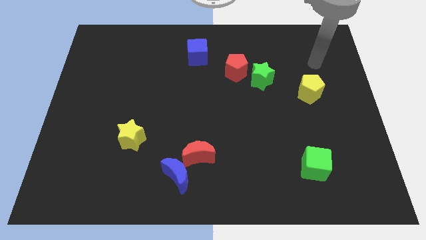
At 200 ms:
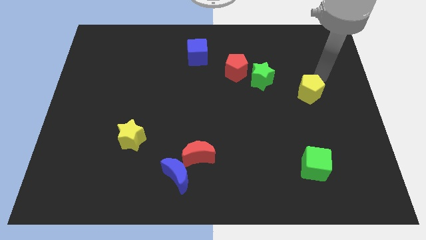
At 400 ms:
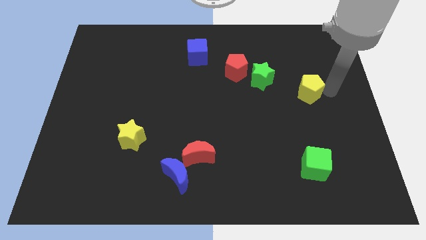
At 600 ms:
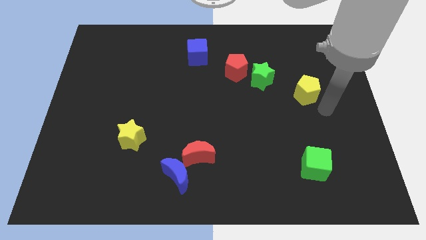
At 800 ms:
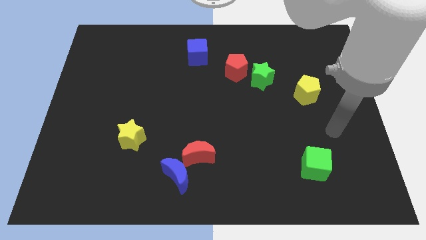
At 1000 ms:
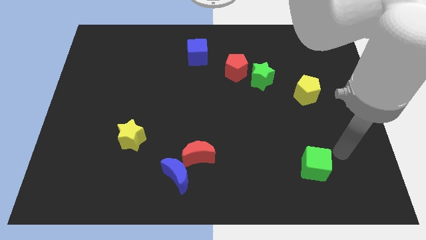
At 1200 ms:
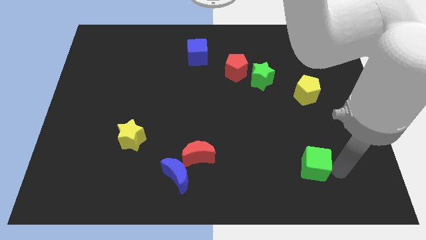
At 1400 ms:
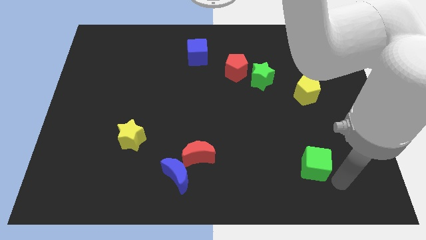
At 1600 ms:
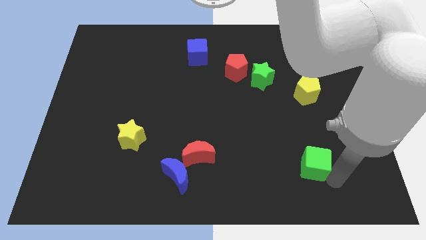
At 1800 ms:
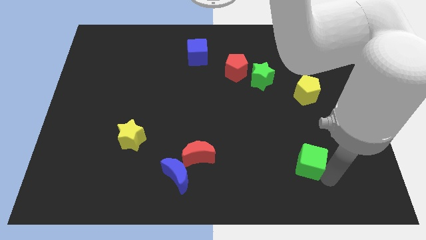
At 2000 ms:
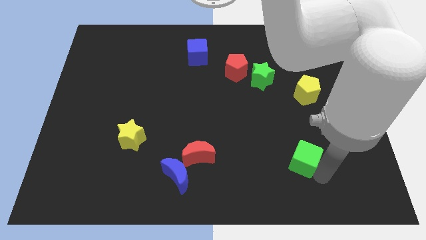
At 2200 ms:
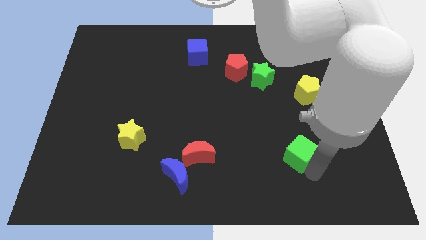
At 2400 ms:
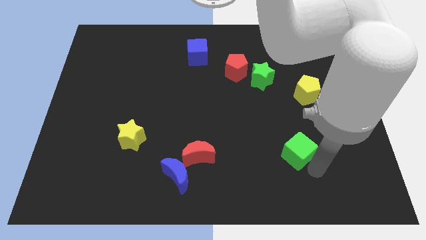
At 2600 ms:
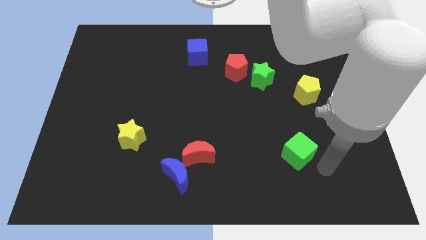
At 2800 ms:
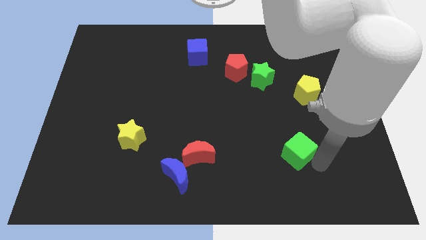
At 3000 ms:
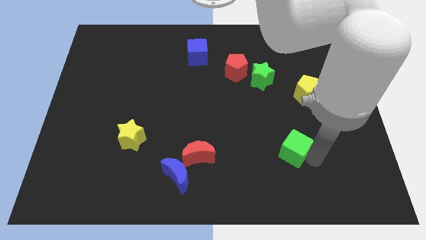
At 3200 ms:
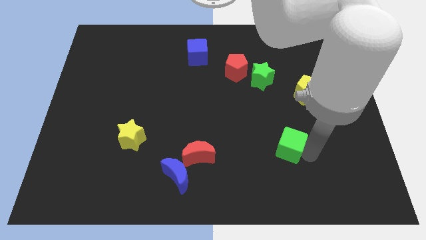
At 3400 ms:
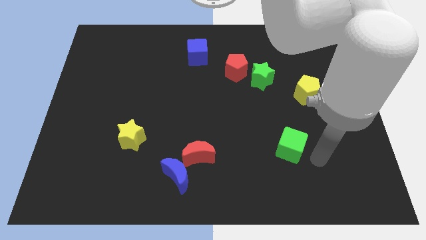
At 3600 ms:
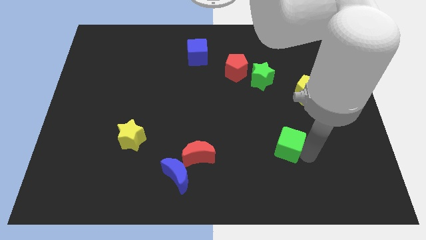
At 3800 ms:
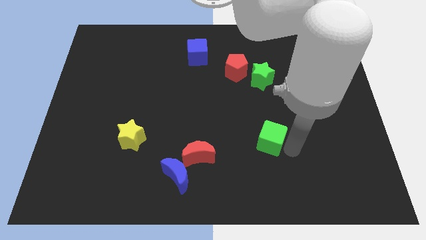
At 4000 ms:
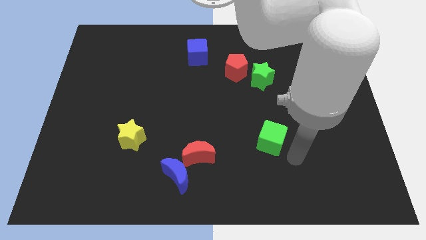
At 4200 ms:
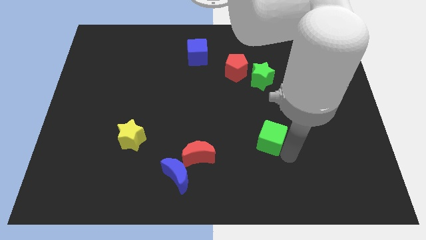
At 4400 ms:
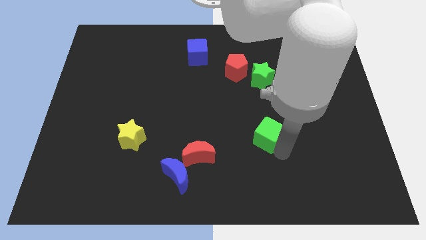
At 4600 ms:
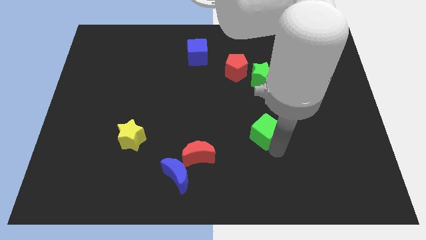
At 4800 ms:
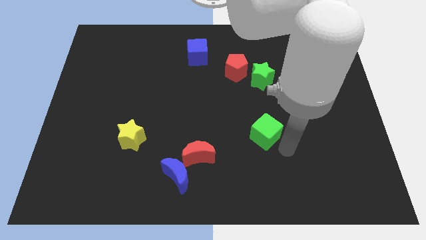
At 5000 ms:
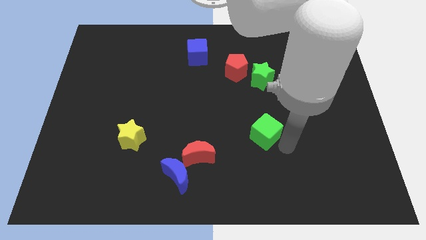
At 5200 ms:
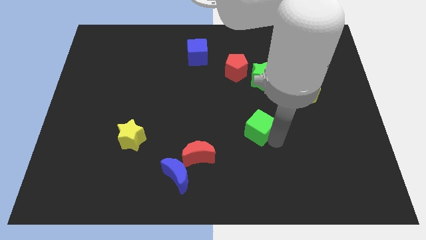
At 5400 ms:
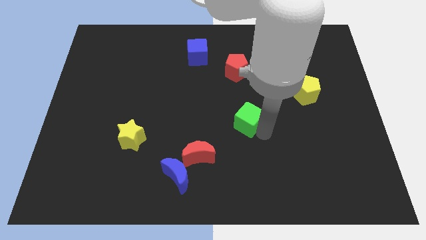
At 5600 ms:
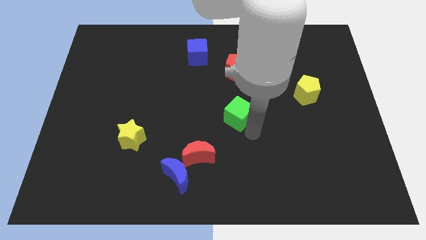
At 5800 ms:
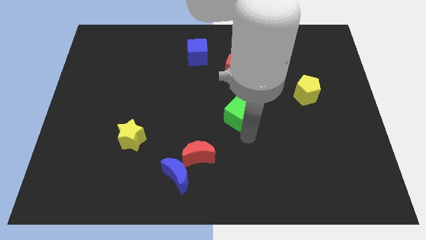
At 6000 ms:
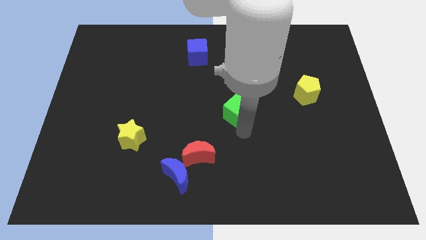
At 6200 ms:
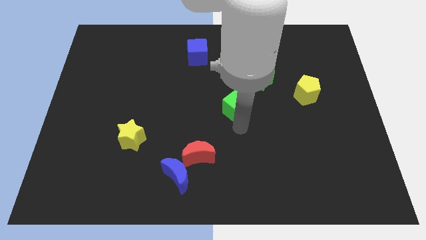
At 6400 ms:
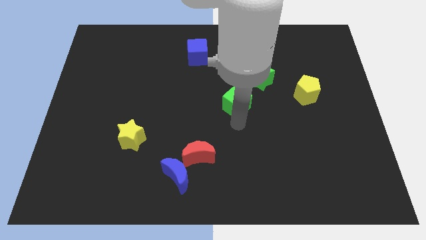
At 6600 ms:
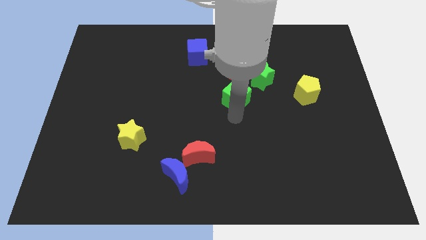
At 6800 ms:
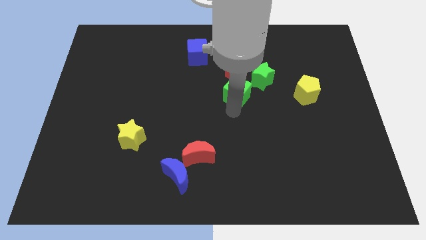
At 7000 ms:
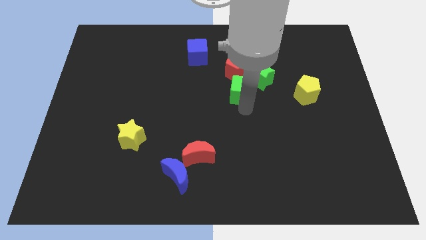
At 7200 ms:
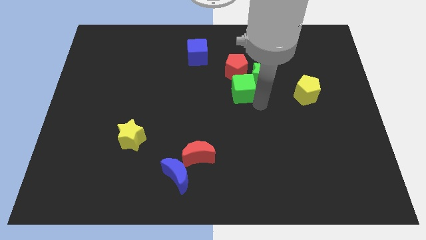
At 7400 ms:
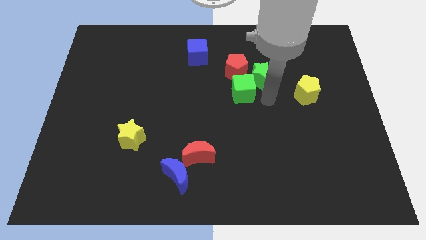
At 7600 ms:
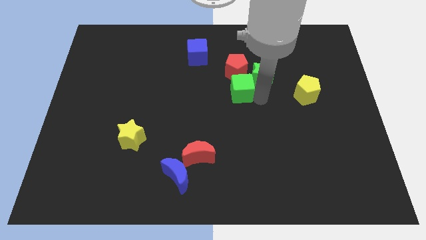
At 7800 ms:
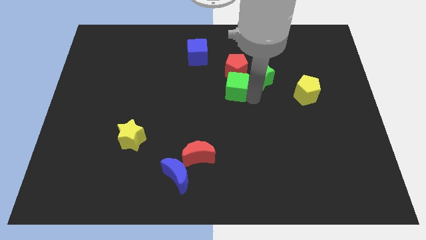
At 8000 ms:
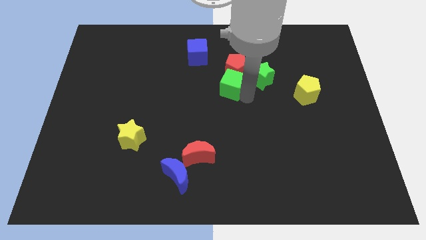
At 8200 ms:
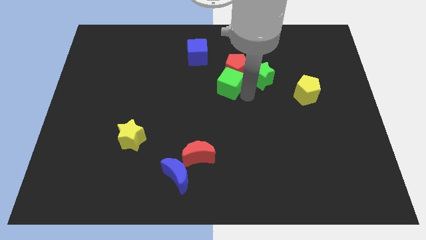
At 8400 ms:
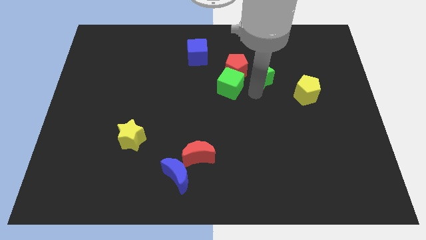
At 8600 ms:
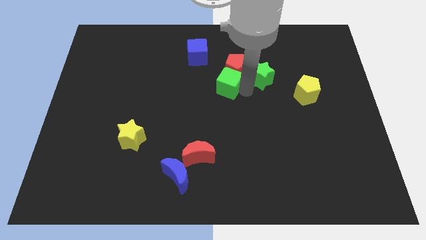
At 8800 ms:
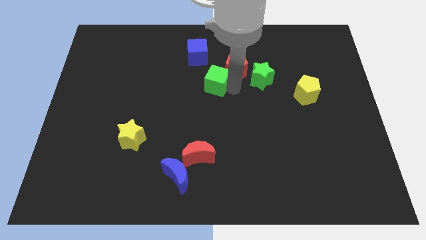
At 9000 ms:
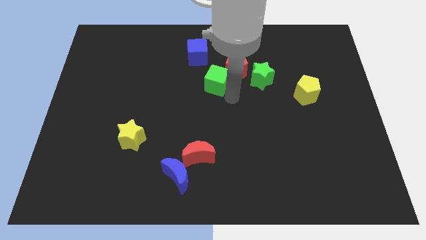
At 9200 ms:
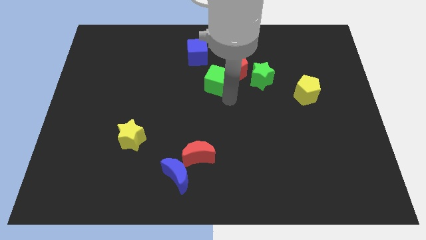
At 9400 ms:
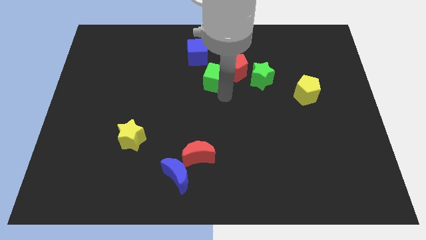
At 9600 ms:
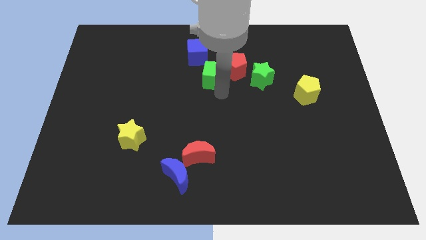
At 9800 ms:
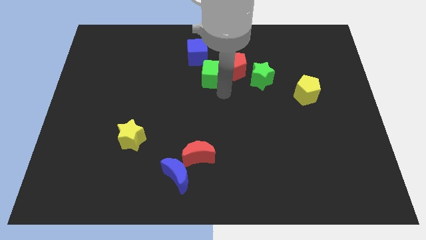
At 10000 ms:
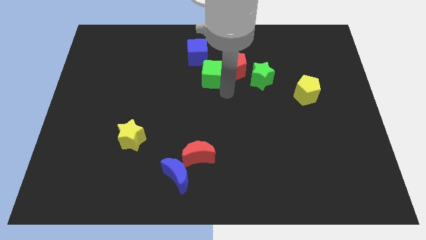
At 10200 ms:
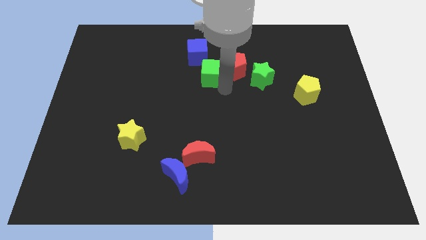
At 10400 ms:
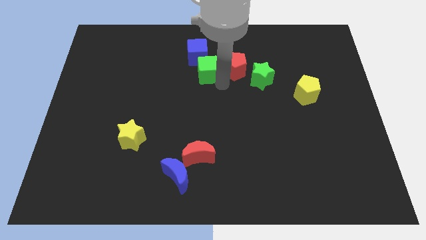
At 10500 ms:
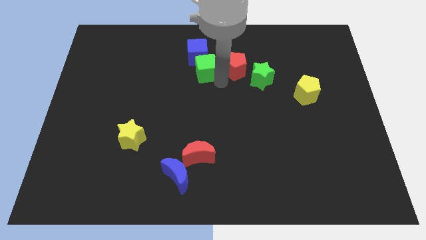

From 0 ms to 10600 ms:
put the green cube towards the blue cube

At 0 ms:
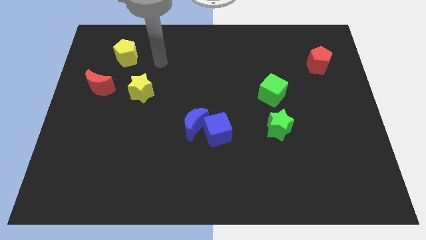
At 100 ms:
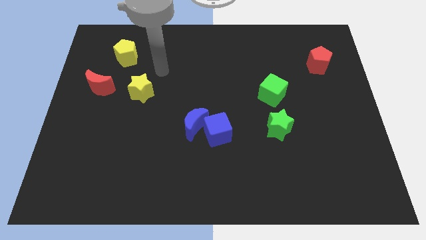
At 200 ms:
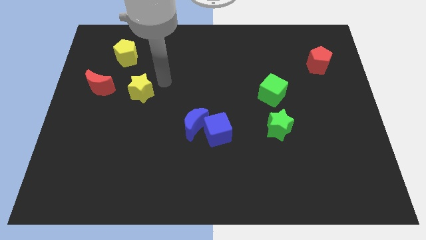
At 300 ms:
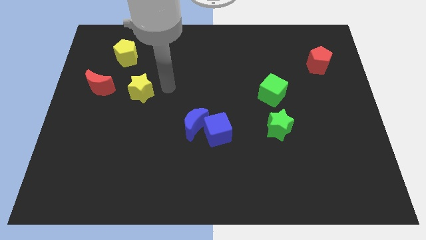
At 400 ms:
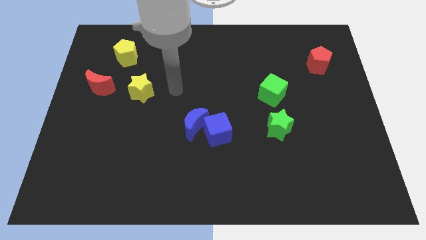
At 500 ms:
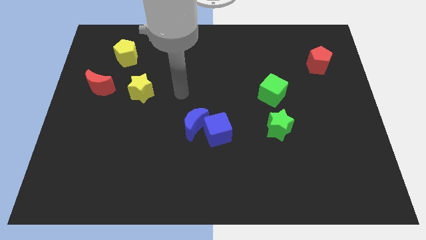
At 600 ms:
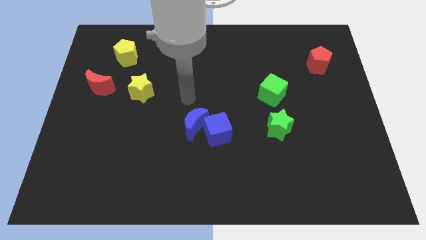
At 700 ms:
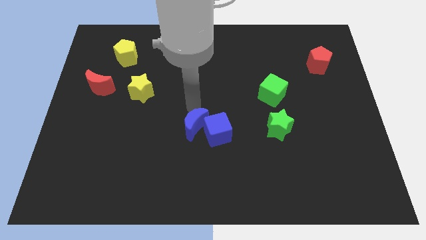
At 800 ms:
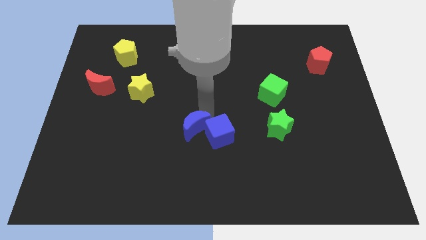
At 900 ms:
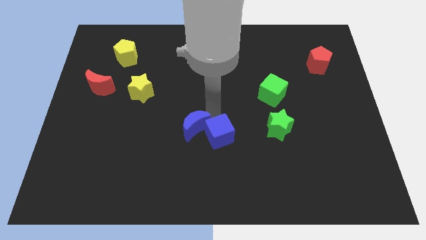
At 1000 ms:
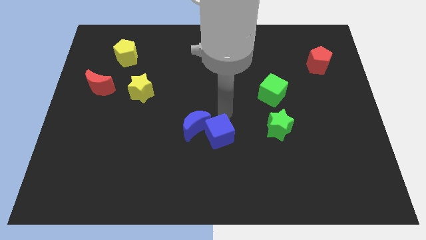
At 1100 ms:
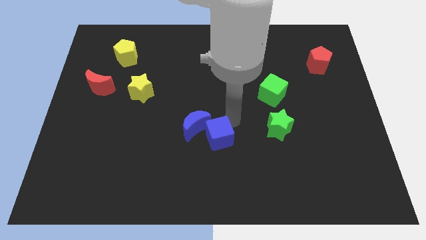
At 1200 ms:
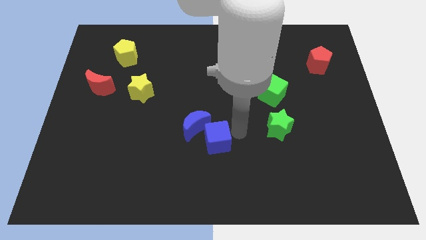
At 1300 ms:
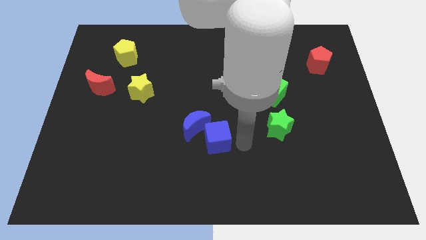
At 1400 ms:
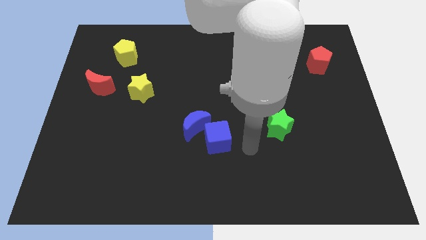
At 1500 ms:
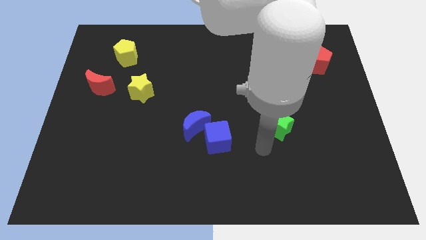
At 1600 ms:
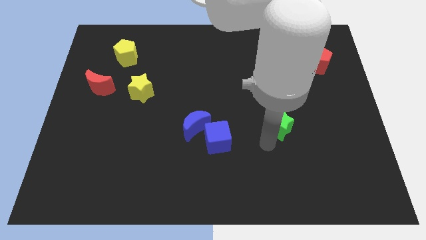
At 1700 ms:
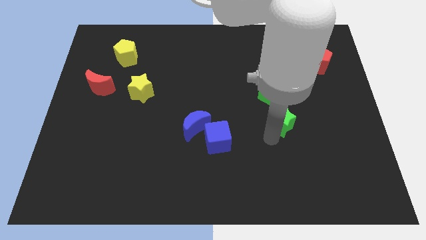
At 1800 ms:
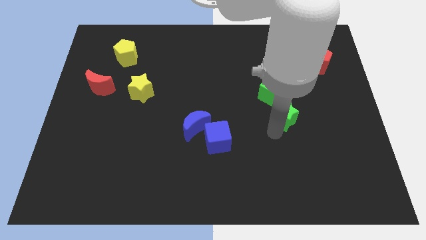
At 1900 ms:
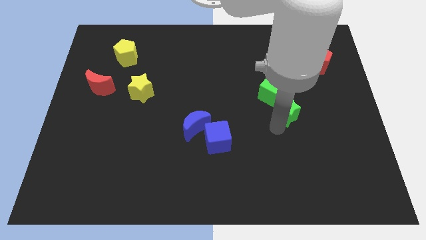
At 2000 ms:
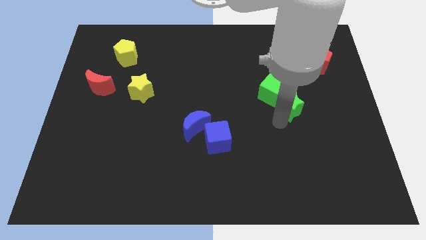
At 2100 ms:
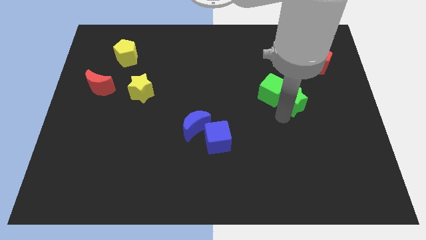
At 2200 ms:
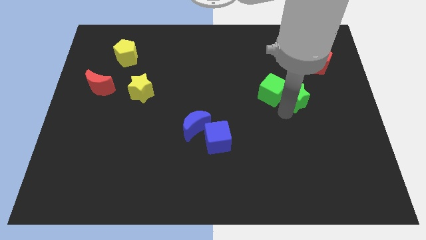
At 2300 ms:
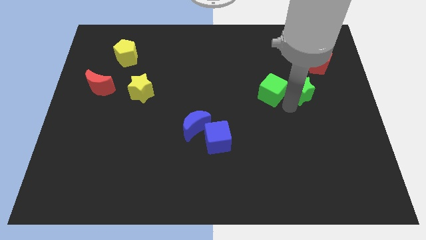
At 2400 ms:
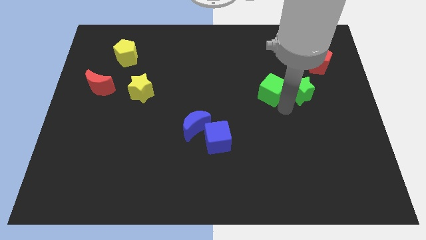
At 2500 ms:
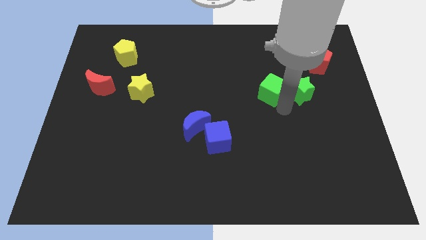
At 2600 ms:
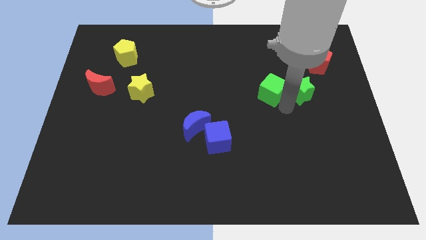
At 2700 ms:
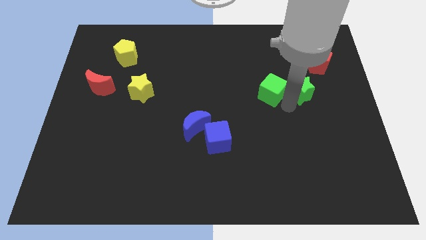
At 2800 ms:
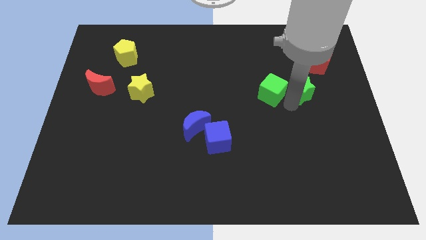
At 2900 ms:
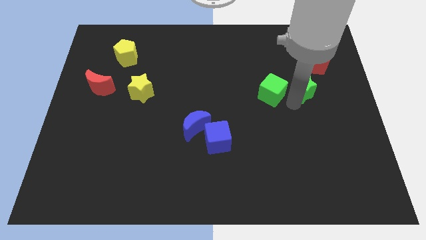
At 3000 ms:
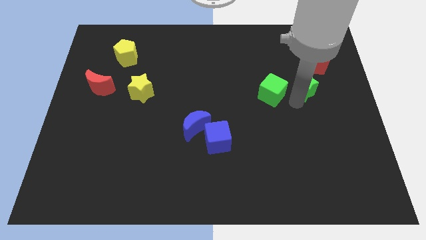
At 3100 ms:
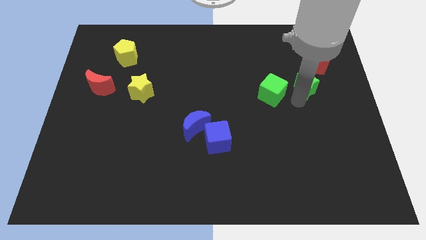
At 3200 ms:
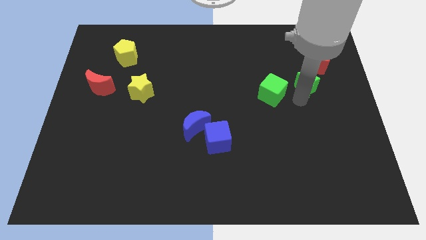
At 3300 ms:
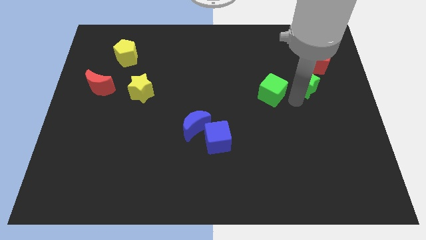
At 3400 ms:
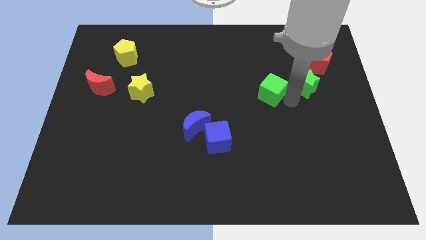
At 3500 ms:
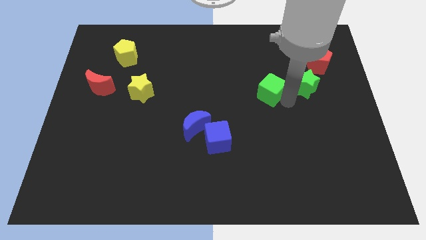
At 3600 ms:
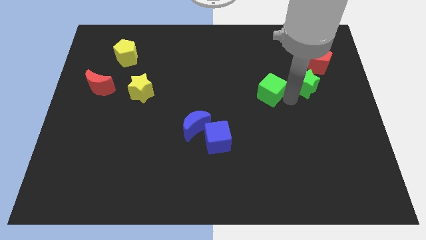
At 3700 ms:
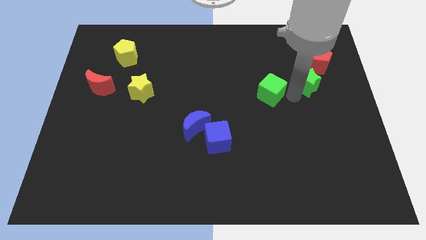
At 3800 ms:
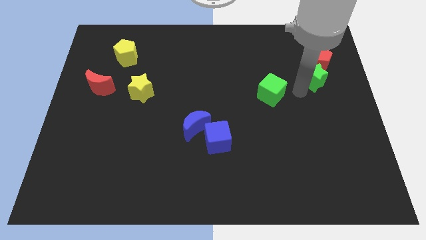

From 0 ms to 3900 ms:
slide the green star next to the red pentagon
